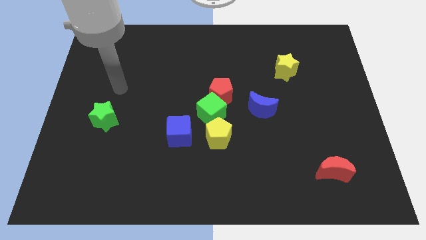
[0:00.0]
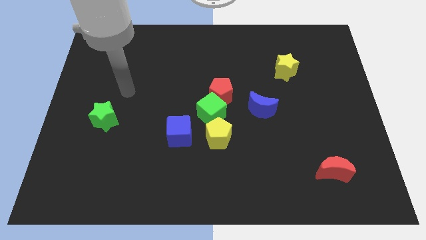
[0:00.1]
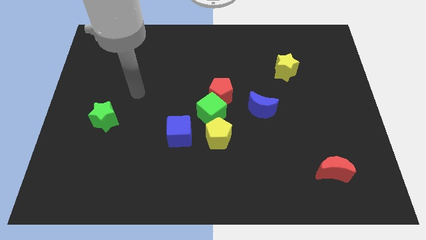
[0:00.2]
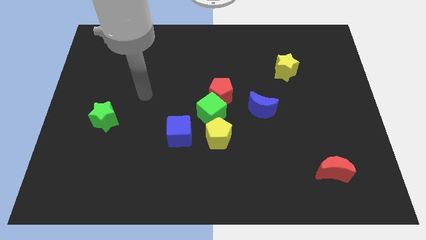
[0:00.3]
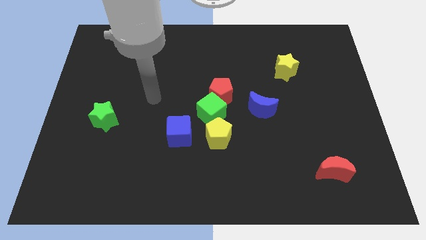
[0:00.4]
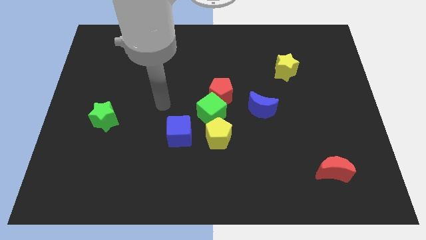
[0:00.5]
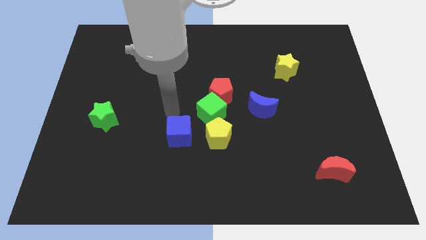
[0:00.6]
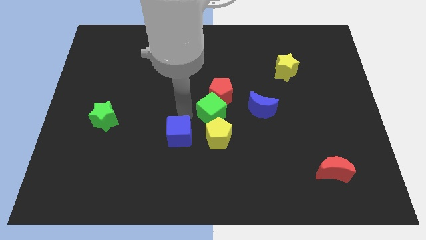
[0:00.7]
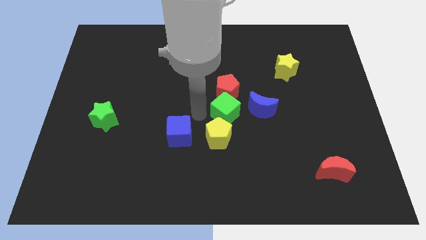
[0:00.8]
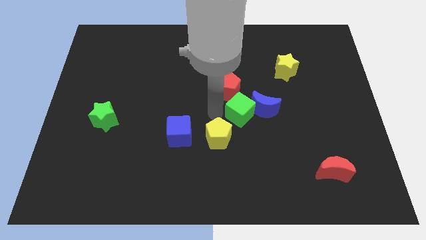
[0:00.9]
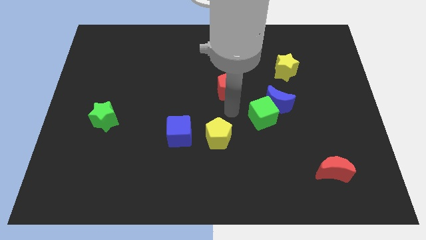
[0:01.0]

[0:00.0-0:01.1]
separate the red pentagon from the green cube

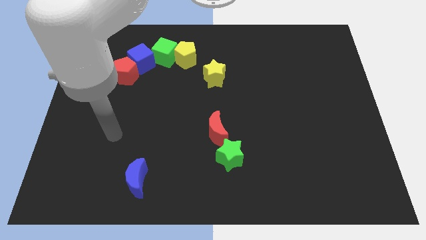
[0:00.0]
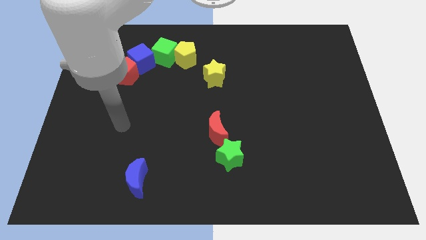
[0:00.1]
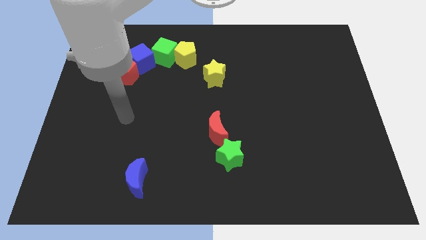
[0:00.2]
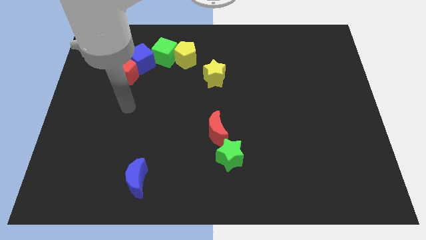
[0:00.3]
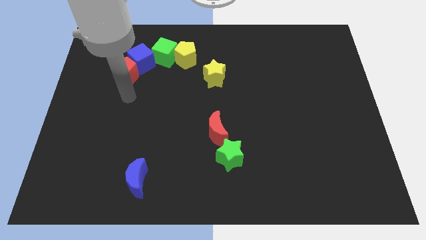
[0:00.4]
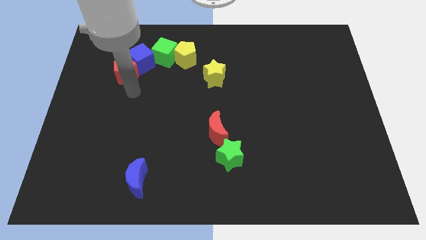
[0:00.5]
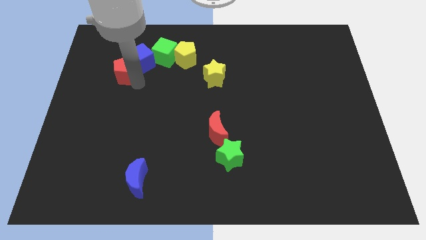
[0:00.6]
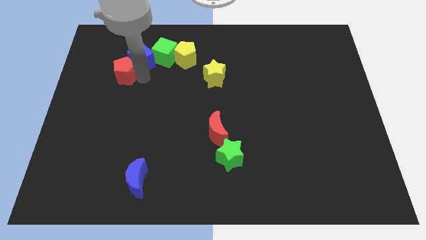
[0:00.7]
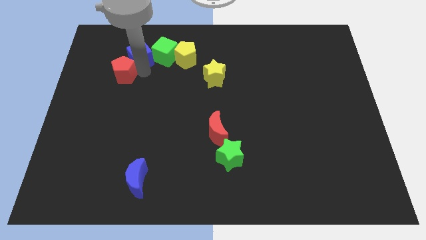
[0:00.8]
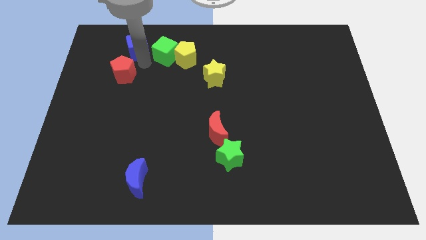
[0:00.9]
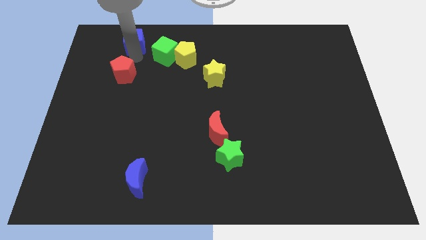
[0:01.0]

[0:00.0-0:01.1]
move the red pentagon away from the blue cube

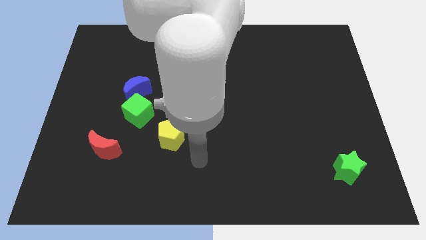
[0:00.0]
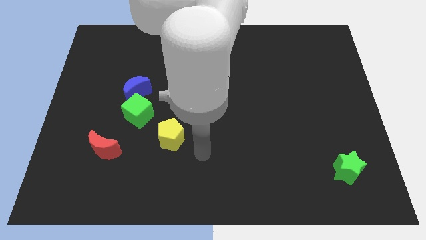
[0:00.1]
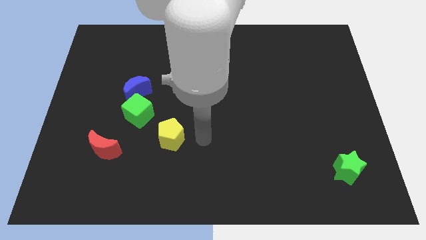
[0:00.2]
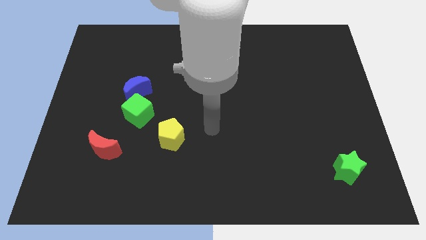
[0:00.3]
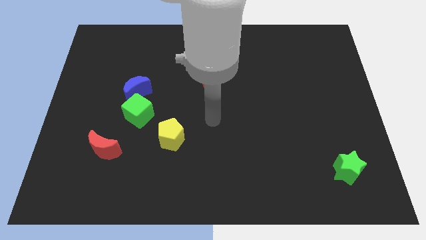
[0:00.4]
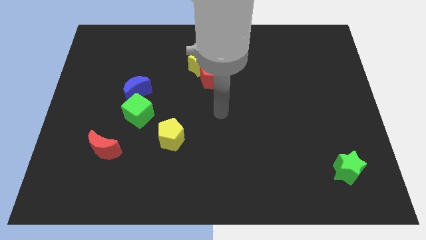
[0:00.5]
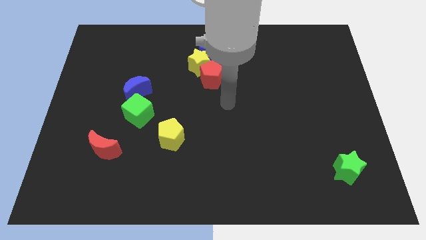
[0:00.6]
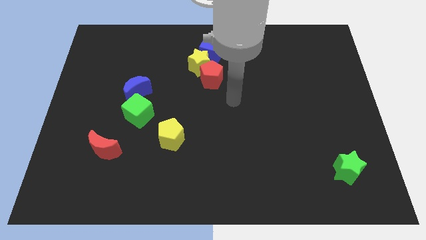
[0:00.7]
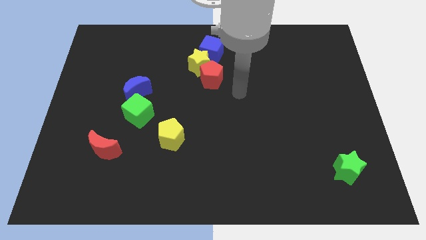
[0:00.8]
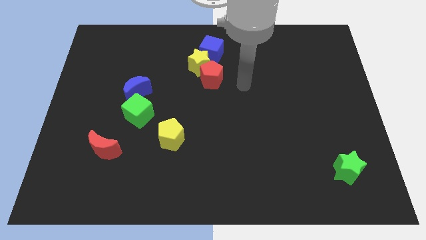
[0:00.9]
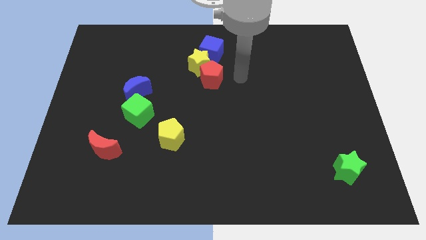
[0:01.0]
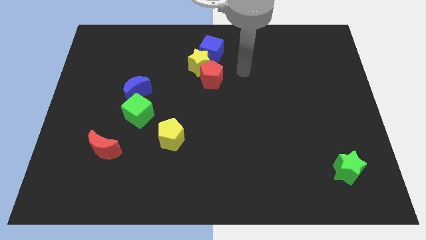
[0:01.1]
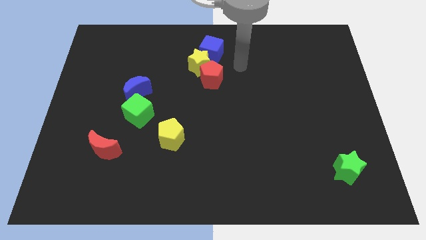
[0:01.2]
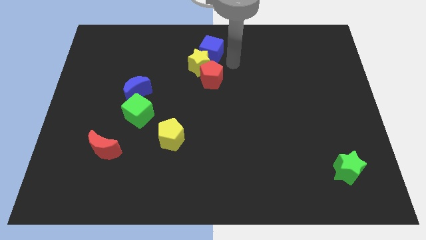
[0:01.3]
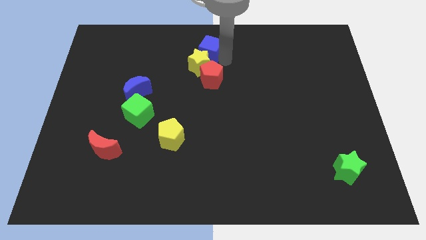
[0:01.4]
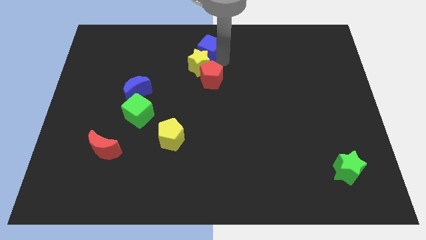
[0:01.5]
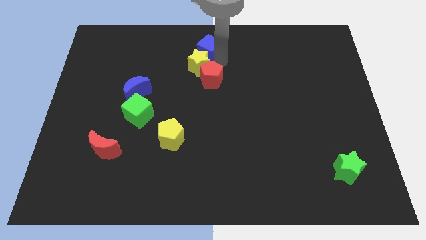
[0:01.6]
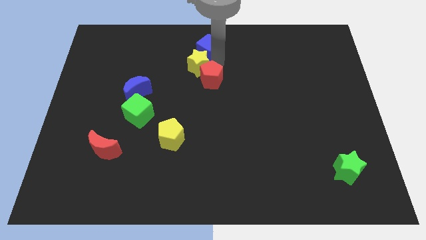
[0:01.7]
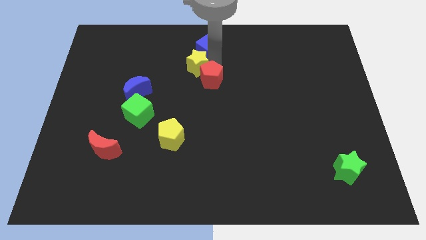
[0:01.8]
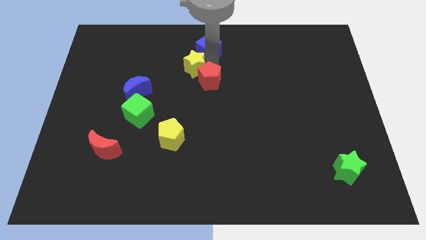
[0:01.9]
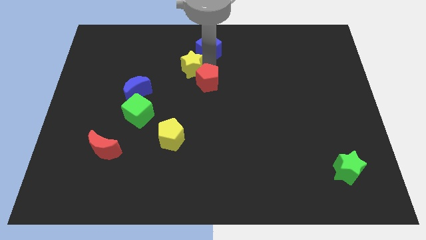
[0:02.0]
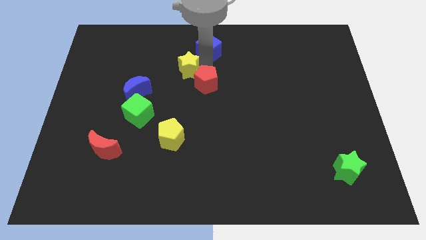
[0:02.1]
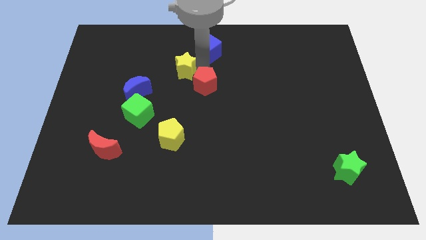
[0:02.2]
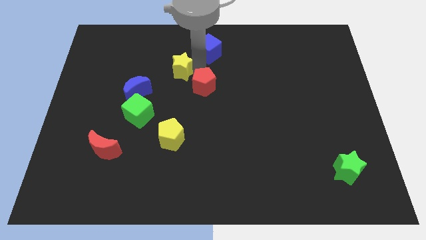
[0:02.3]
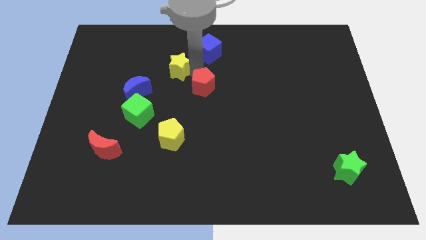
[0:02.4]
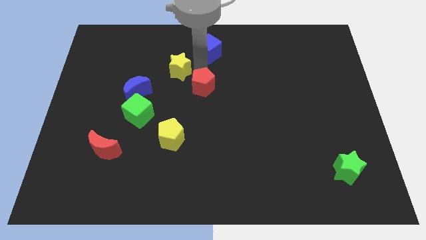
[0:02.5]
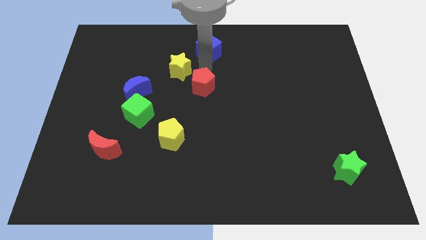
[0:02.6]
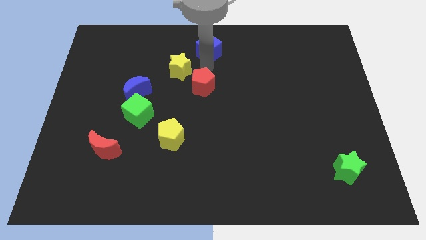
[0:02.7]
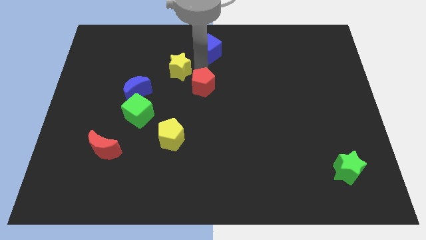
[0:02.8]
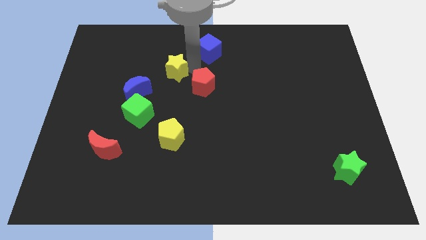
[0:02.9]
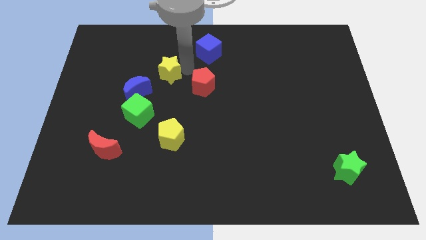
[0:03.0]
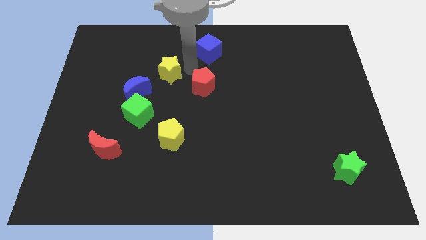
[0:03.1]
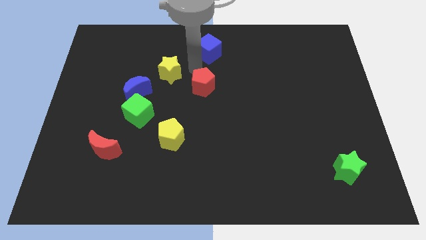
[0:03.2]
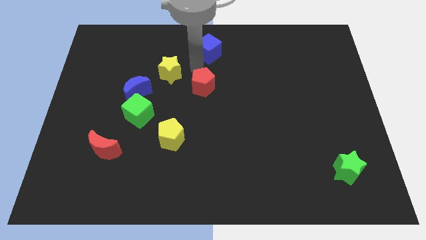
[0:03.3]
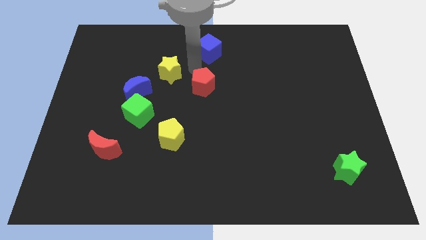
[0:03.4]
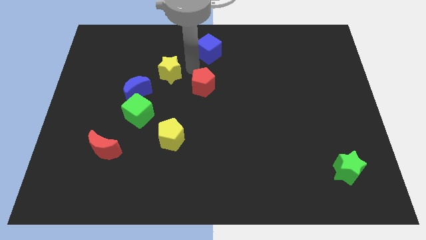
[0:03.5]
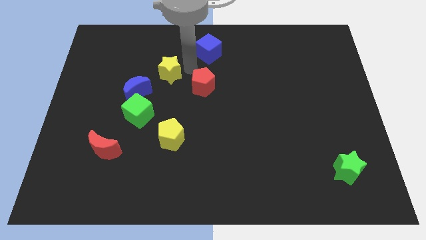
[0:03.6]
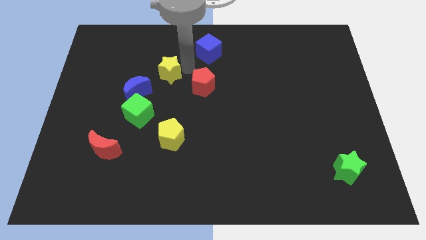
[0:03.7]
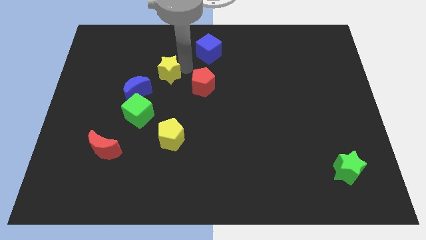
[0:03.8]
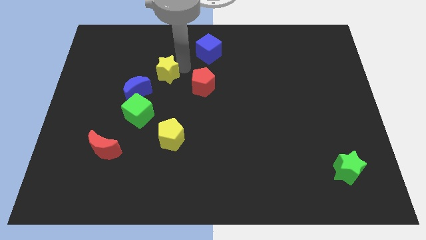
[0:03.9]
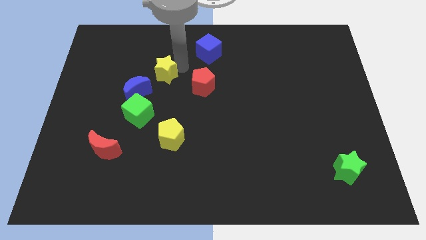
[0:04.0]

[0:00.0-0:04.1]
pull the yellow star apart from the blue cube and red pentagon

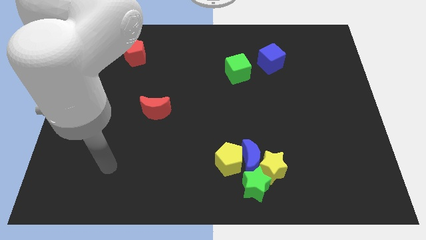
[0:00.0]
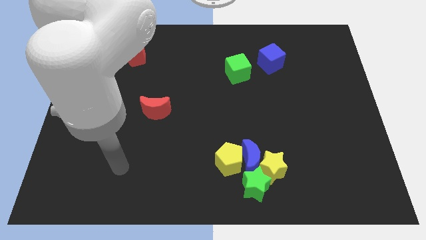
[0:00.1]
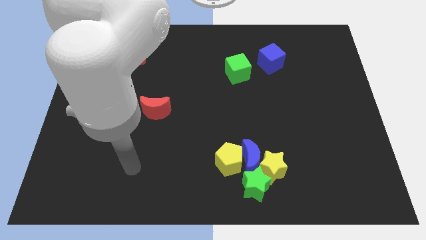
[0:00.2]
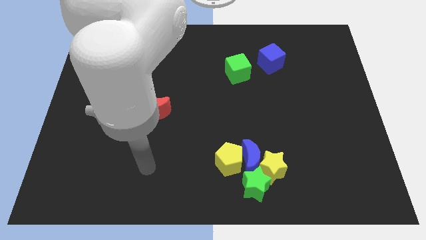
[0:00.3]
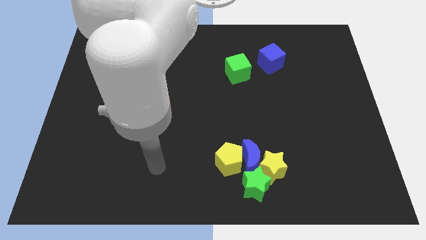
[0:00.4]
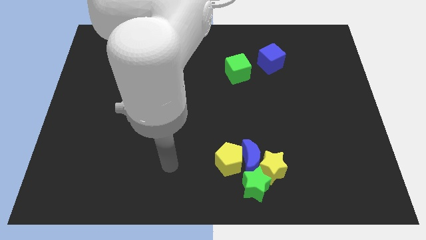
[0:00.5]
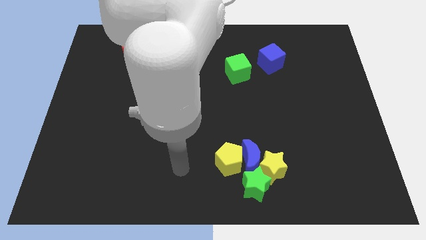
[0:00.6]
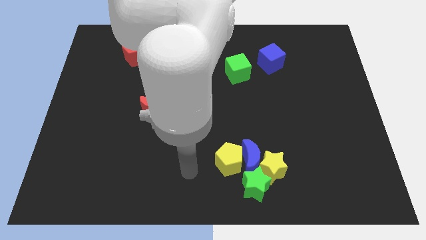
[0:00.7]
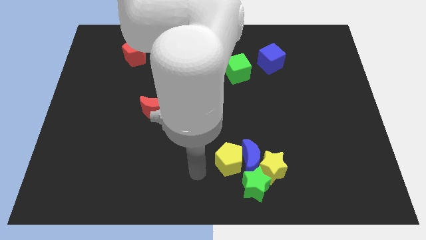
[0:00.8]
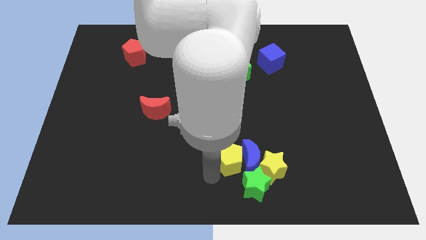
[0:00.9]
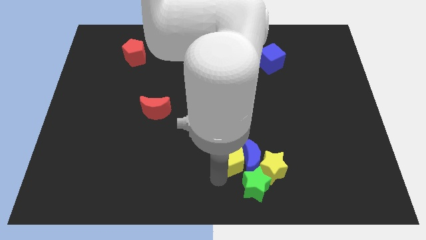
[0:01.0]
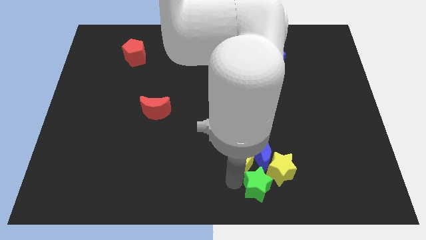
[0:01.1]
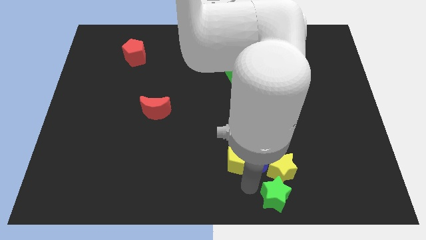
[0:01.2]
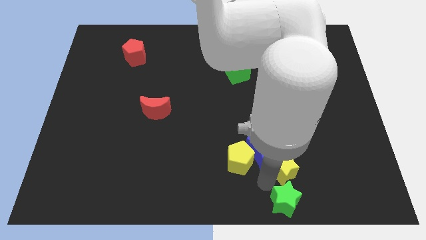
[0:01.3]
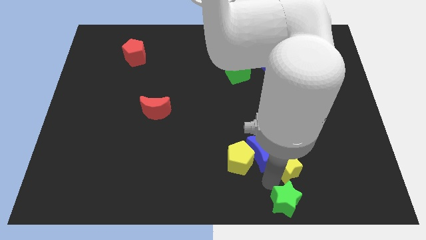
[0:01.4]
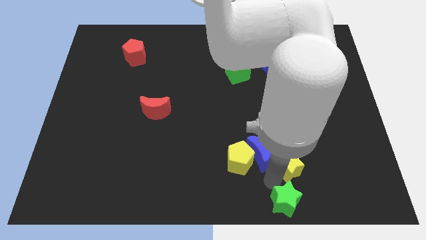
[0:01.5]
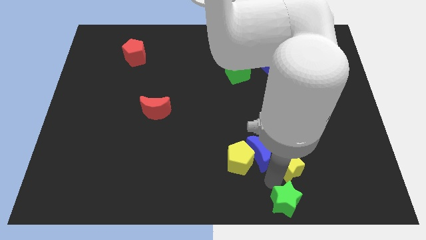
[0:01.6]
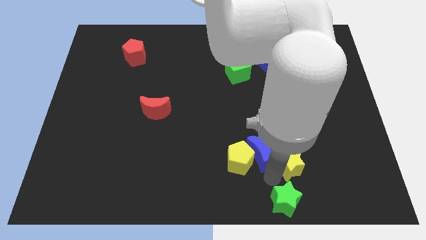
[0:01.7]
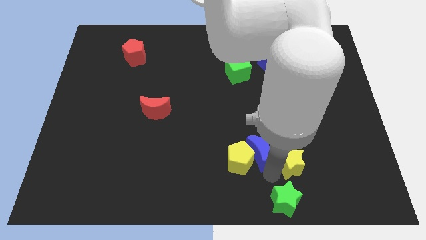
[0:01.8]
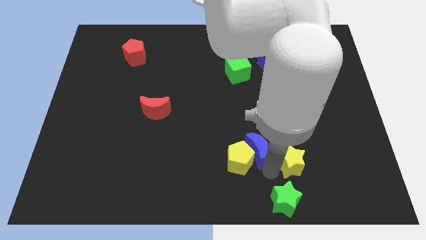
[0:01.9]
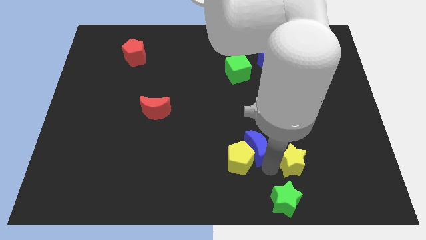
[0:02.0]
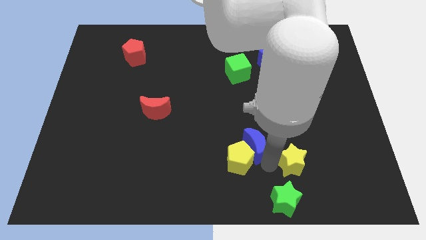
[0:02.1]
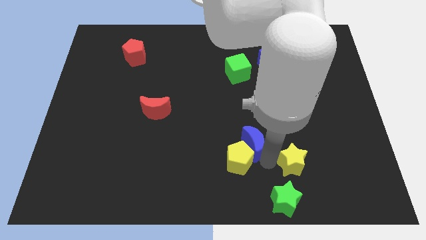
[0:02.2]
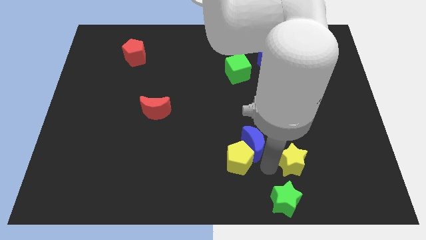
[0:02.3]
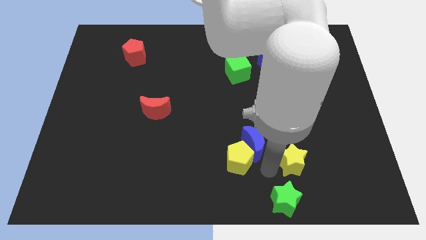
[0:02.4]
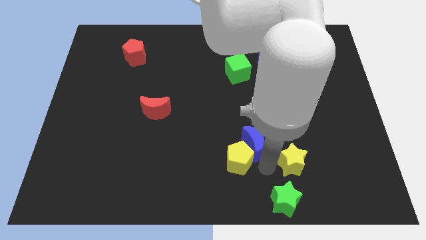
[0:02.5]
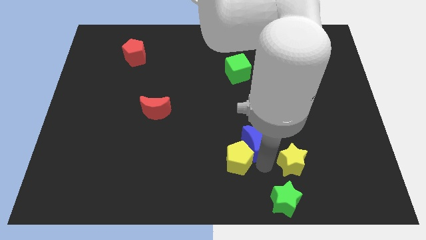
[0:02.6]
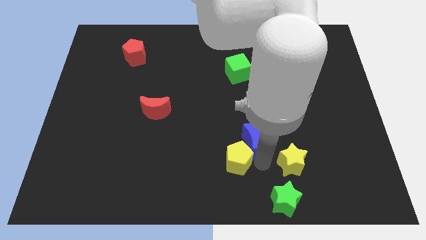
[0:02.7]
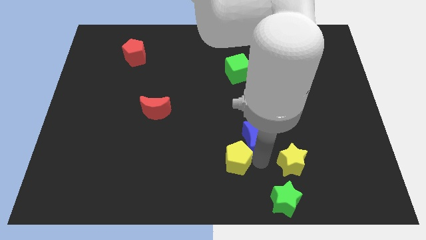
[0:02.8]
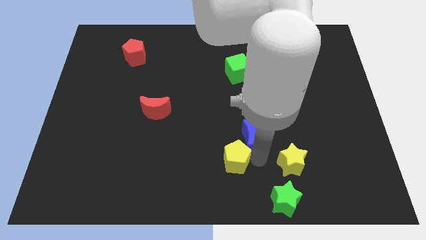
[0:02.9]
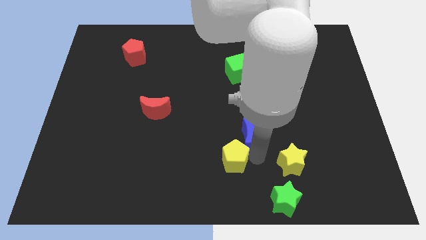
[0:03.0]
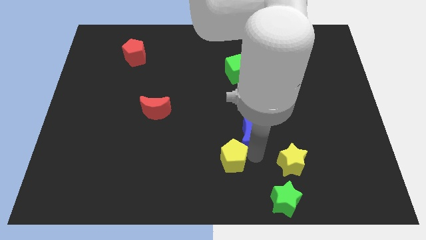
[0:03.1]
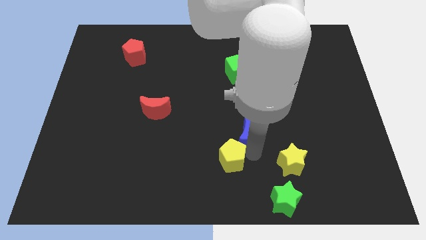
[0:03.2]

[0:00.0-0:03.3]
pull the blue moon apart from the group
